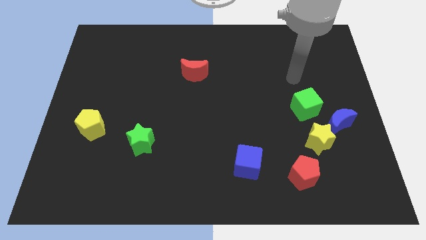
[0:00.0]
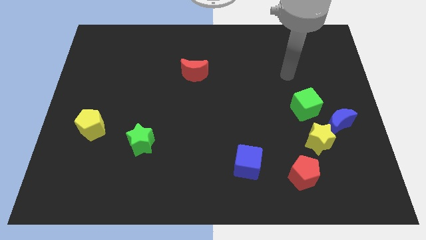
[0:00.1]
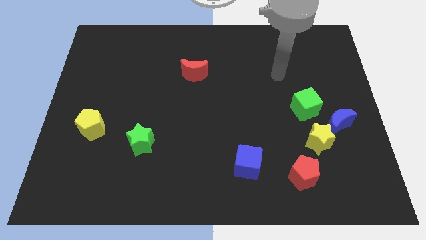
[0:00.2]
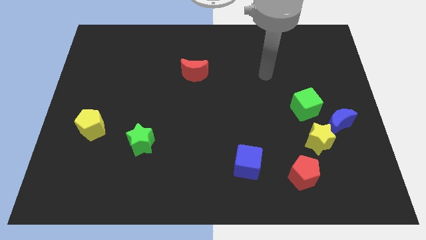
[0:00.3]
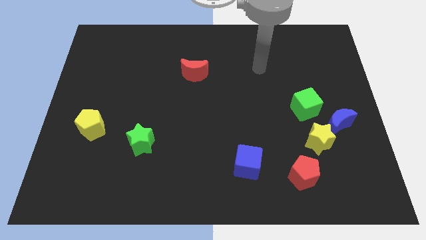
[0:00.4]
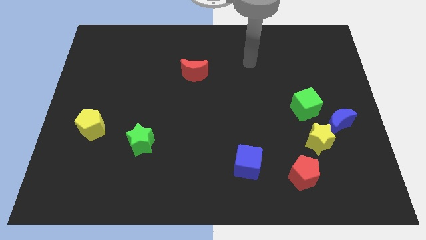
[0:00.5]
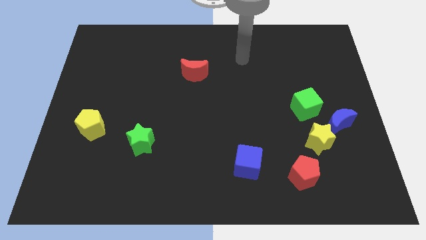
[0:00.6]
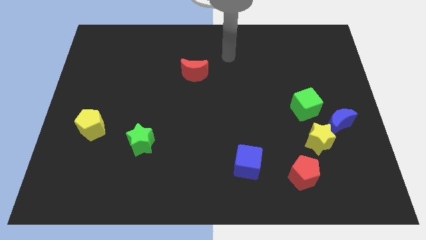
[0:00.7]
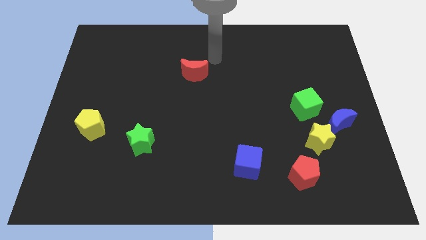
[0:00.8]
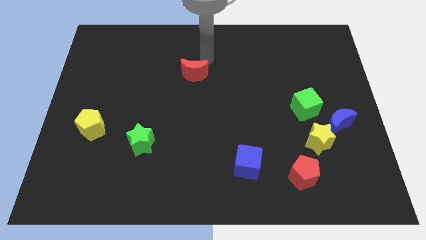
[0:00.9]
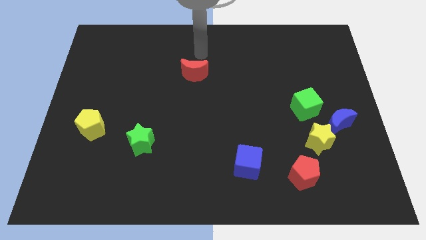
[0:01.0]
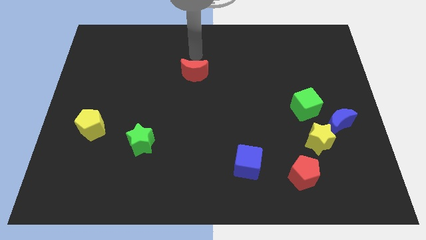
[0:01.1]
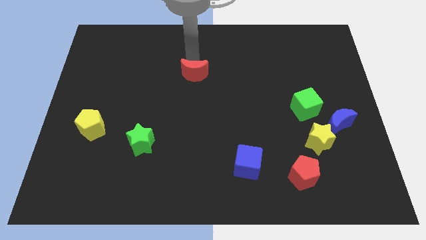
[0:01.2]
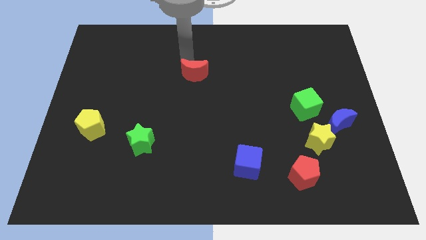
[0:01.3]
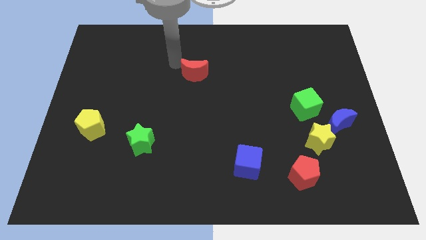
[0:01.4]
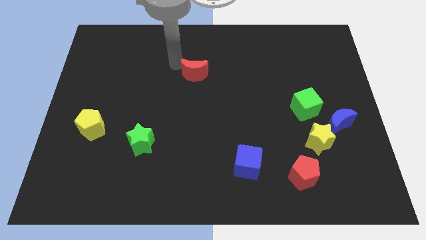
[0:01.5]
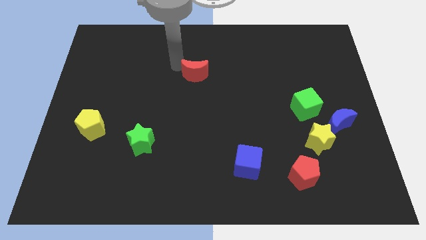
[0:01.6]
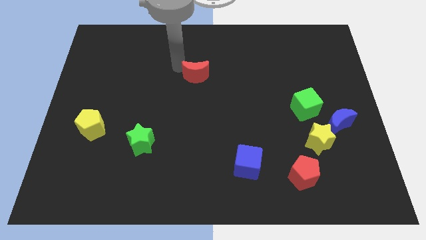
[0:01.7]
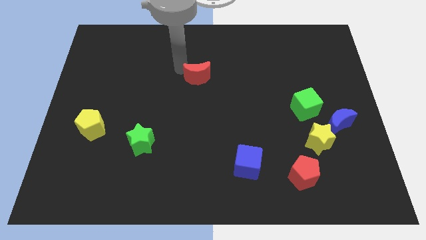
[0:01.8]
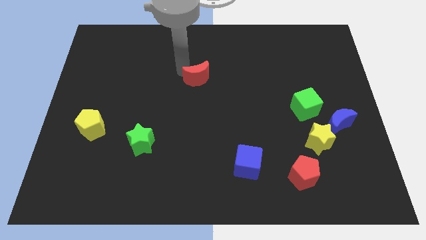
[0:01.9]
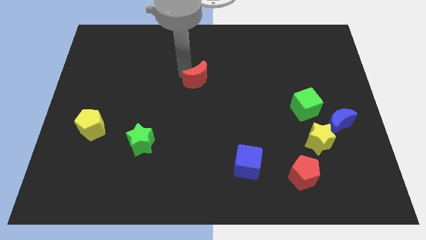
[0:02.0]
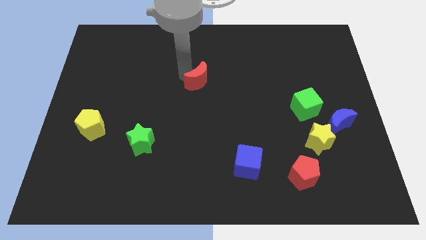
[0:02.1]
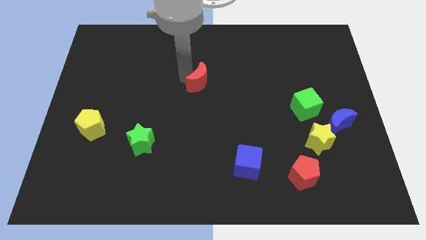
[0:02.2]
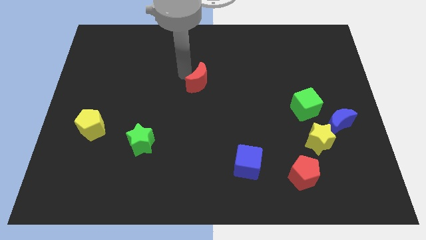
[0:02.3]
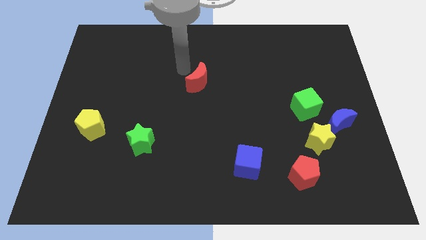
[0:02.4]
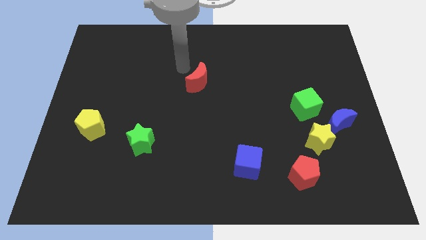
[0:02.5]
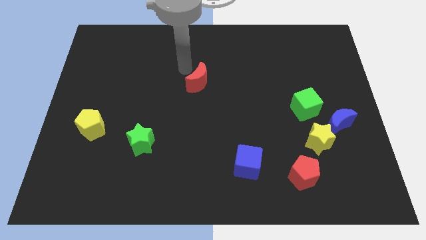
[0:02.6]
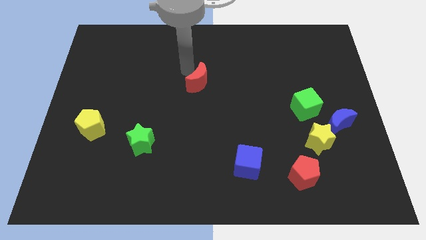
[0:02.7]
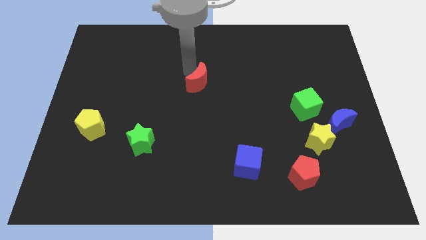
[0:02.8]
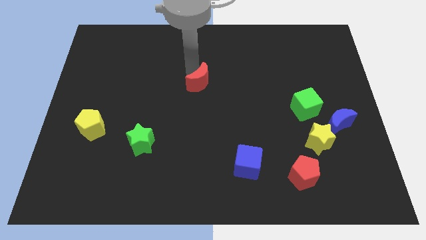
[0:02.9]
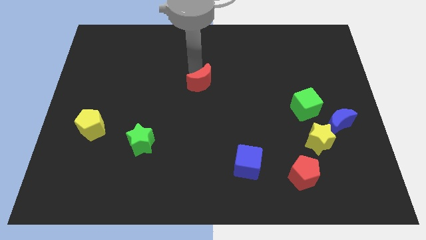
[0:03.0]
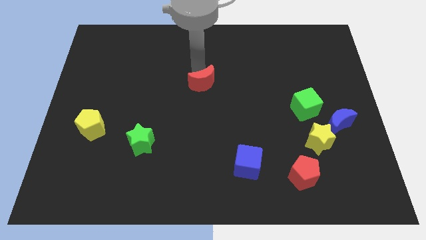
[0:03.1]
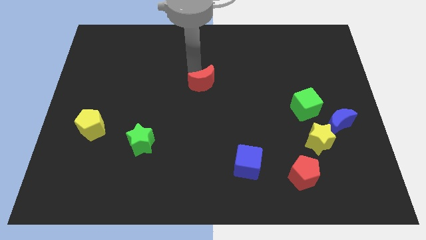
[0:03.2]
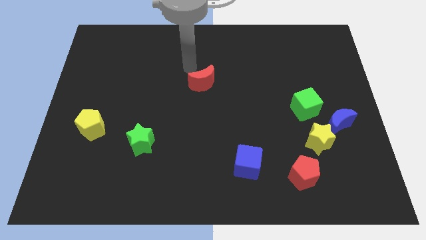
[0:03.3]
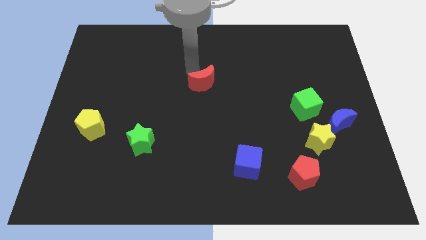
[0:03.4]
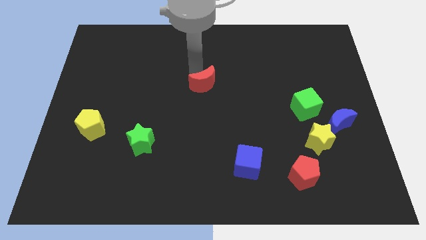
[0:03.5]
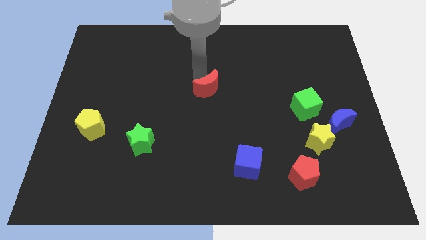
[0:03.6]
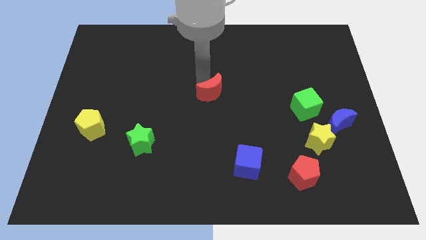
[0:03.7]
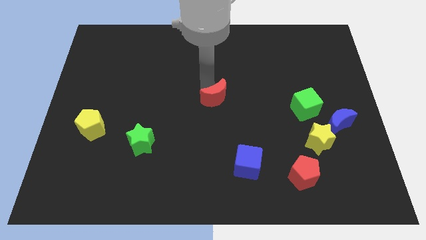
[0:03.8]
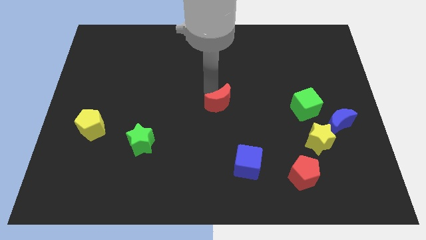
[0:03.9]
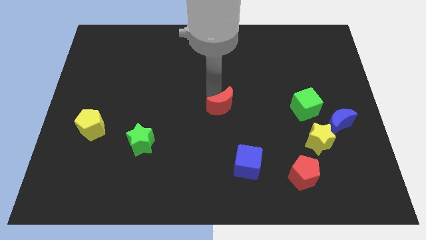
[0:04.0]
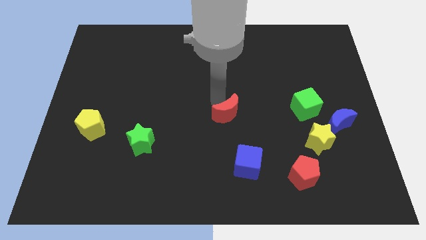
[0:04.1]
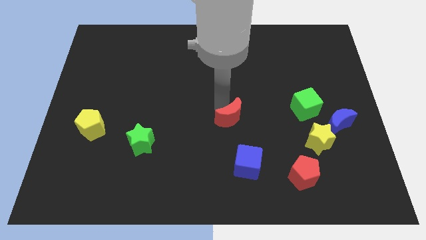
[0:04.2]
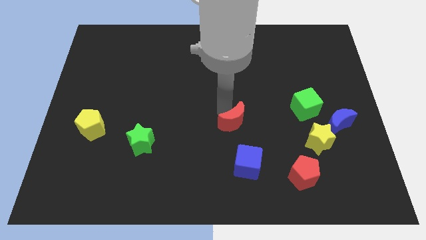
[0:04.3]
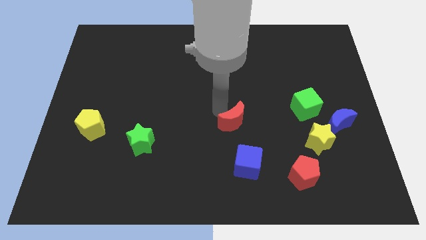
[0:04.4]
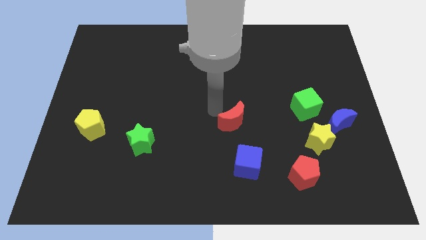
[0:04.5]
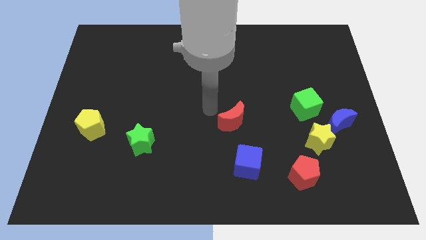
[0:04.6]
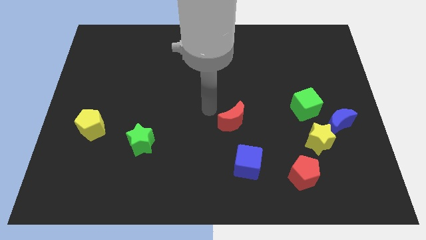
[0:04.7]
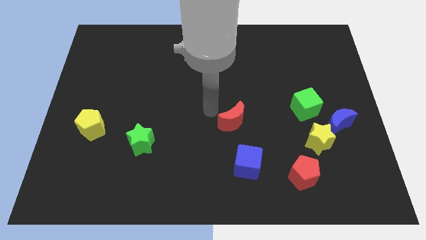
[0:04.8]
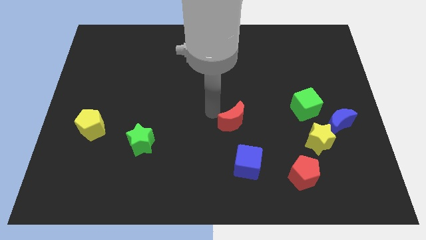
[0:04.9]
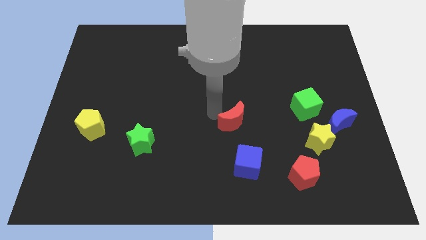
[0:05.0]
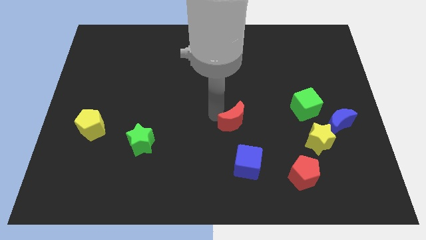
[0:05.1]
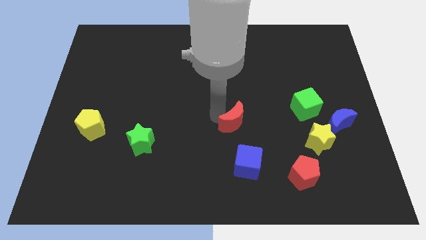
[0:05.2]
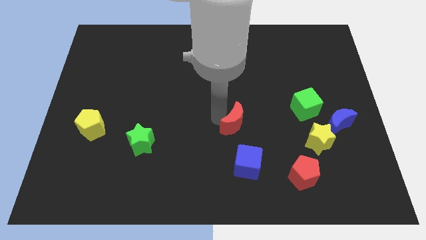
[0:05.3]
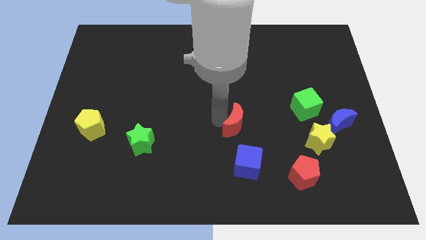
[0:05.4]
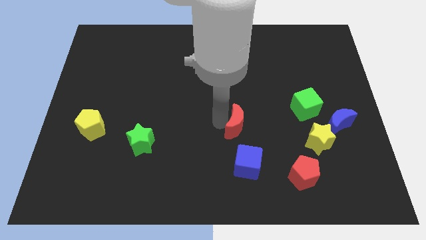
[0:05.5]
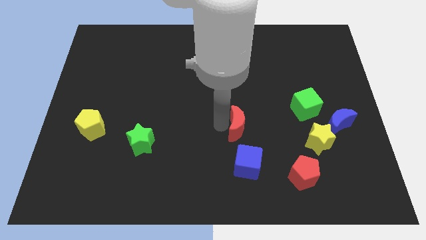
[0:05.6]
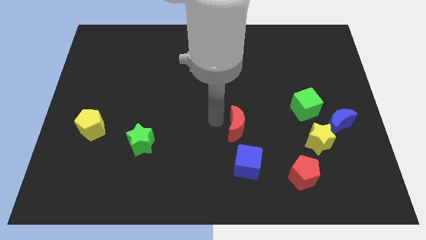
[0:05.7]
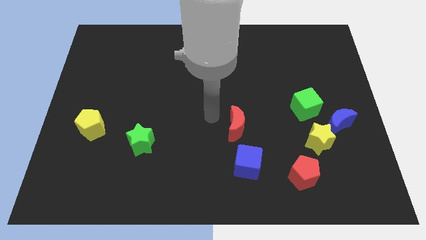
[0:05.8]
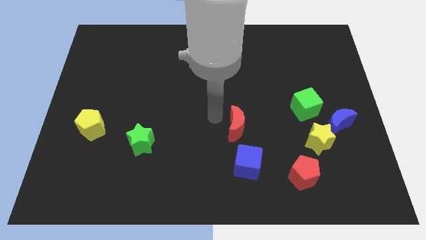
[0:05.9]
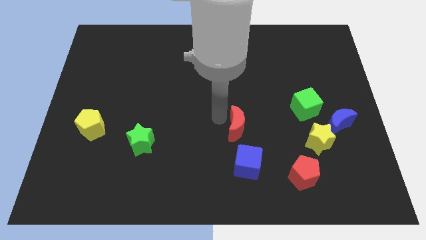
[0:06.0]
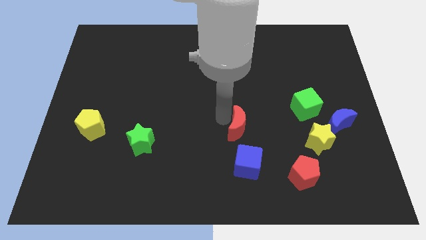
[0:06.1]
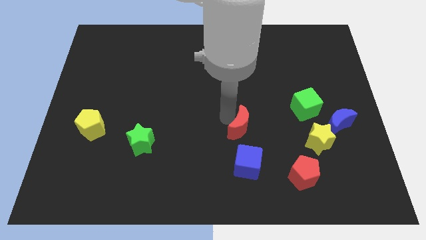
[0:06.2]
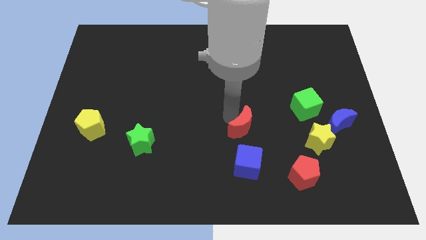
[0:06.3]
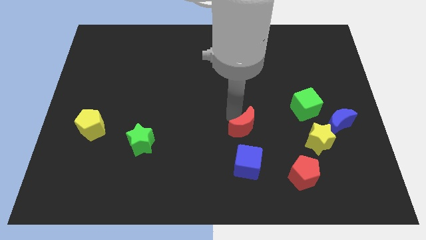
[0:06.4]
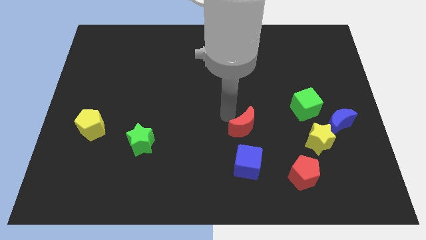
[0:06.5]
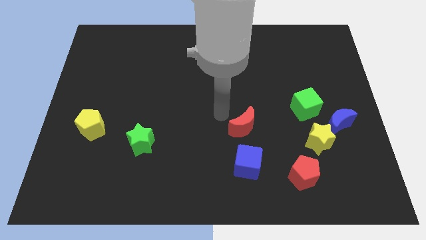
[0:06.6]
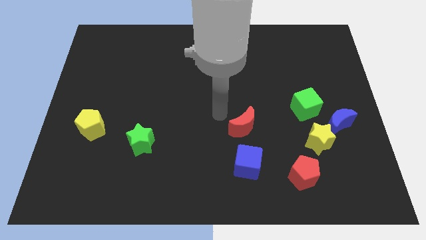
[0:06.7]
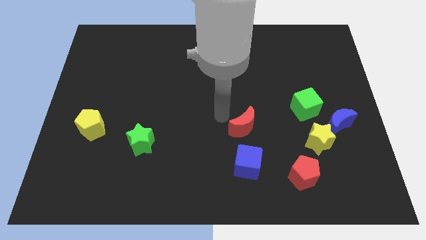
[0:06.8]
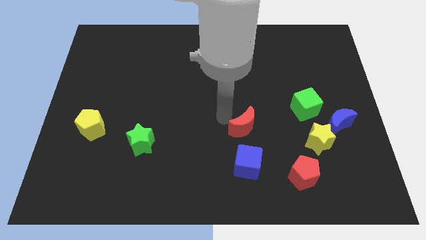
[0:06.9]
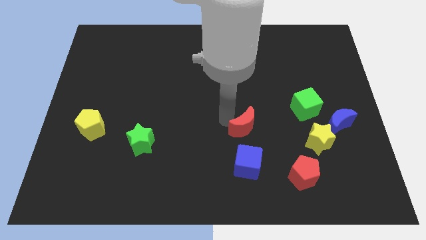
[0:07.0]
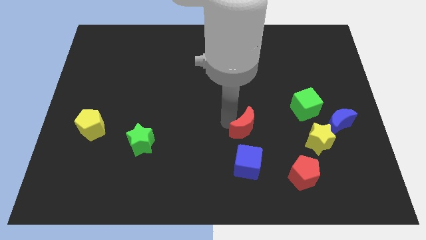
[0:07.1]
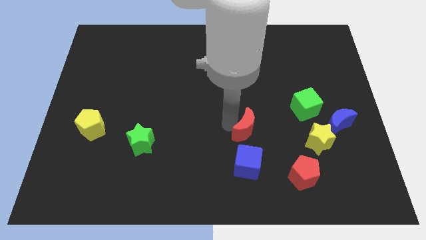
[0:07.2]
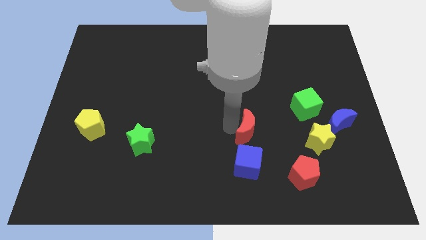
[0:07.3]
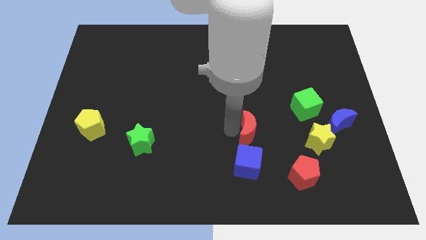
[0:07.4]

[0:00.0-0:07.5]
slide the red moon to the left of the yellow star
